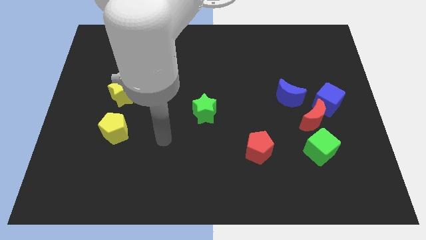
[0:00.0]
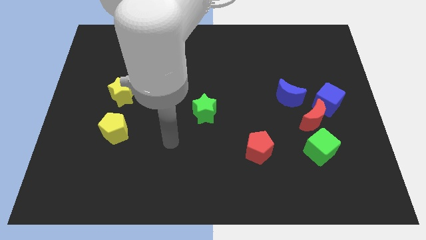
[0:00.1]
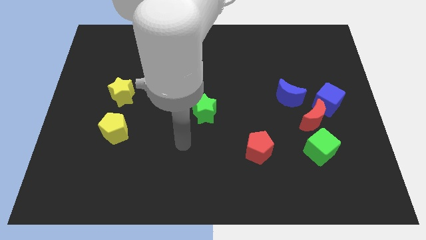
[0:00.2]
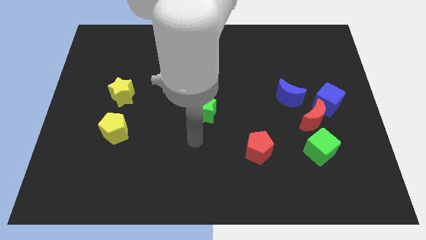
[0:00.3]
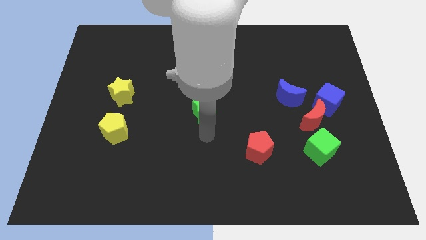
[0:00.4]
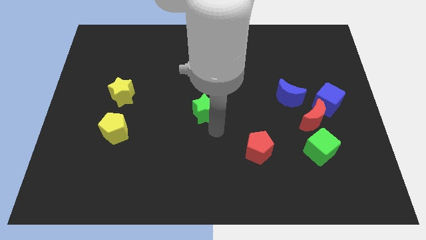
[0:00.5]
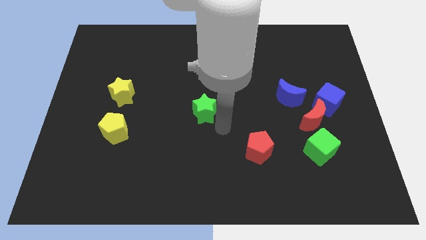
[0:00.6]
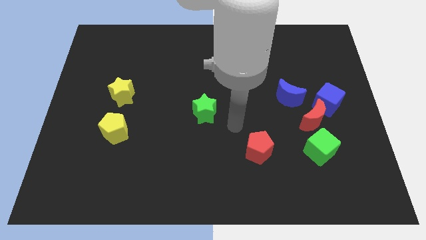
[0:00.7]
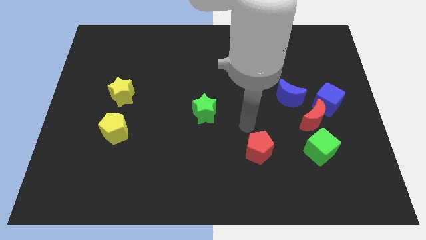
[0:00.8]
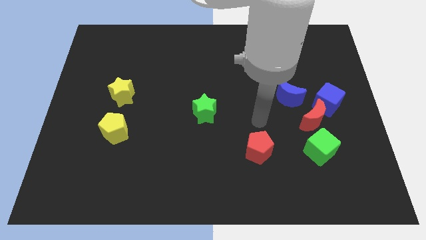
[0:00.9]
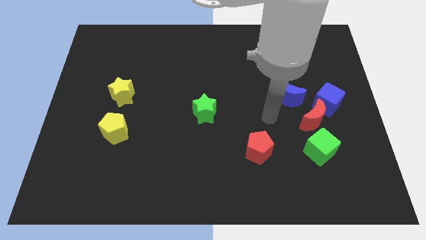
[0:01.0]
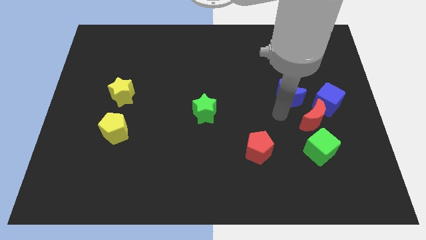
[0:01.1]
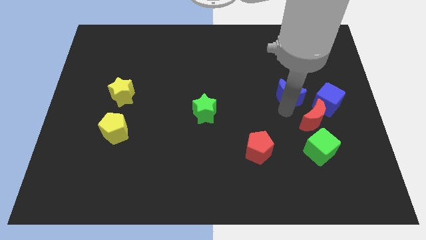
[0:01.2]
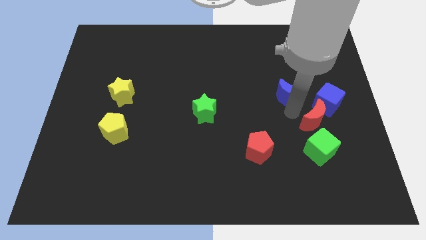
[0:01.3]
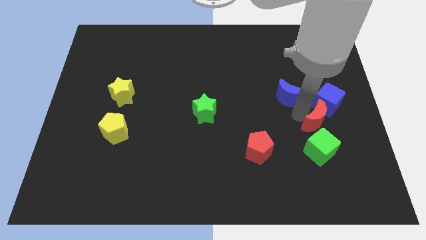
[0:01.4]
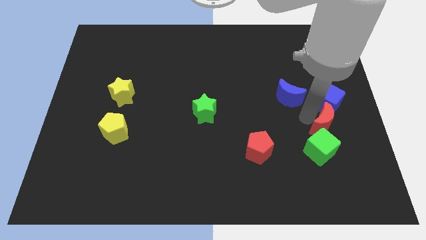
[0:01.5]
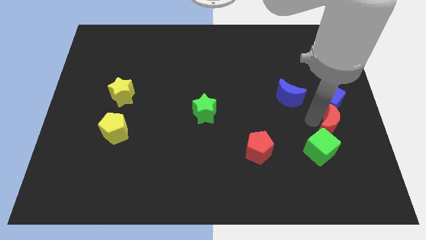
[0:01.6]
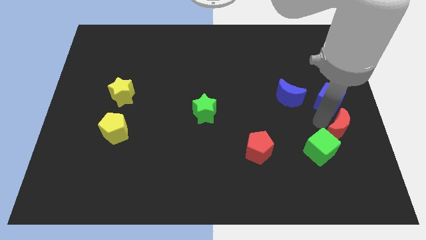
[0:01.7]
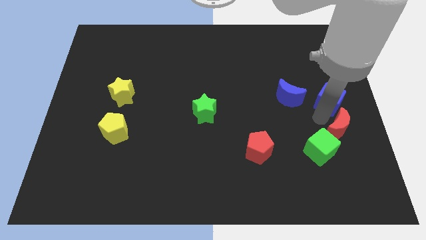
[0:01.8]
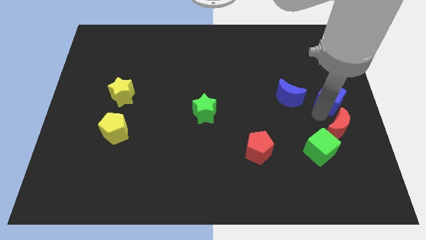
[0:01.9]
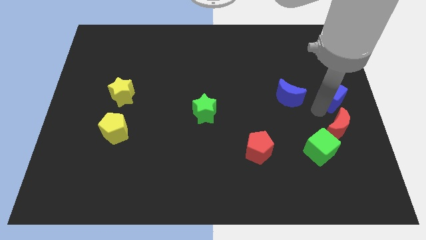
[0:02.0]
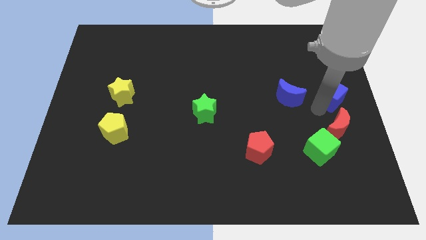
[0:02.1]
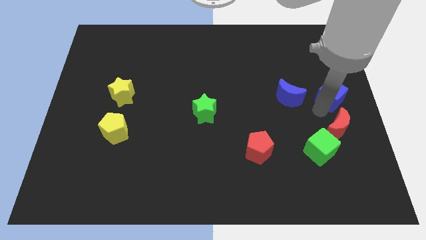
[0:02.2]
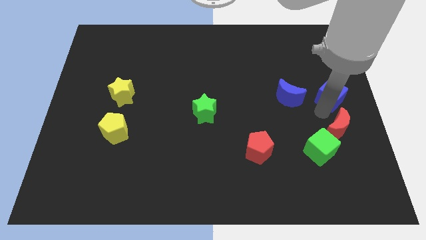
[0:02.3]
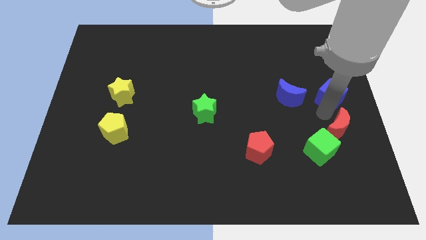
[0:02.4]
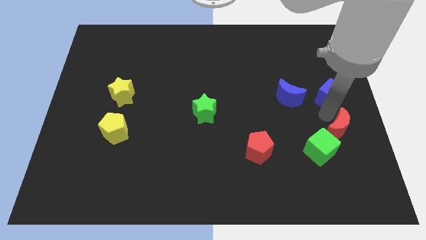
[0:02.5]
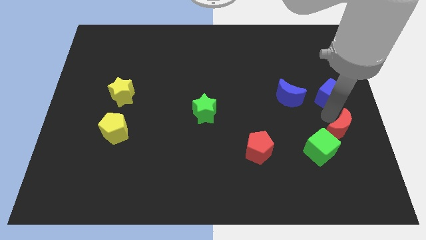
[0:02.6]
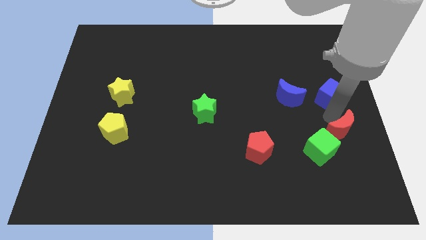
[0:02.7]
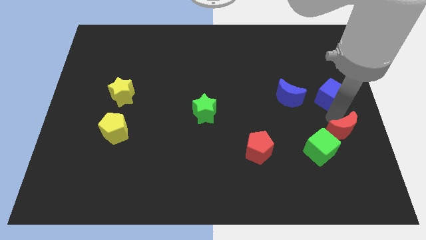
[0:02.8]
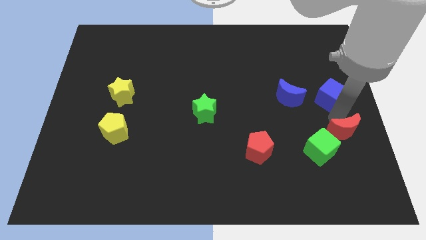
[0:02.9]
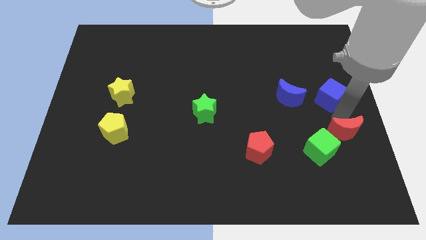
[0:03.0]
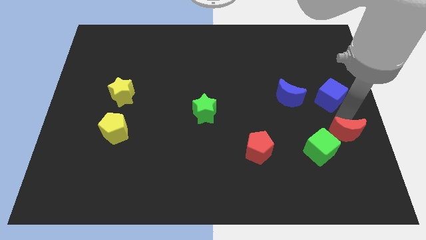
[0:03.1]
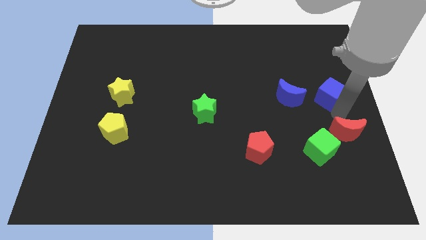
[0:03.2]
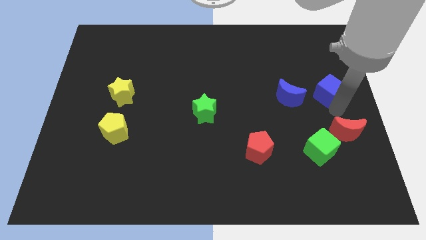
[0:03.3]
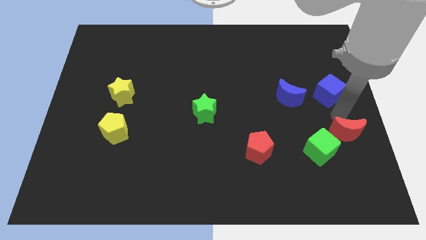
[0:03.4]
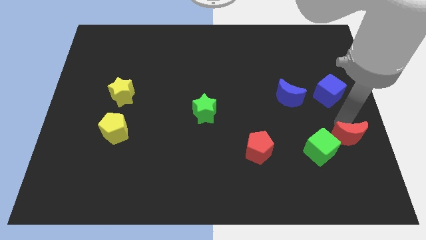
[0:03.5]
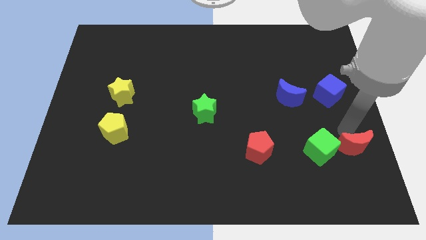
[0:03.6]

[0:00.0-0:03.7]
separate the red moon from the blue cube, green cube, and blue moon

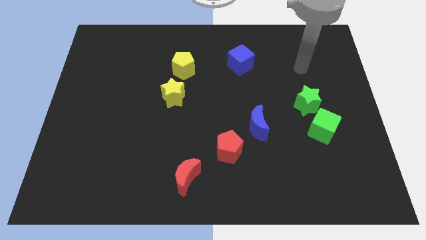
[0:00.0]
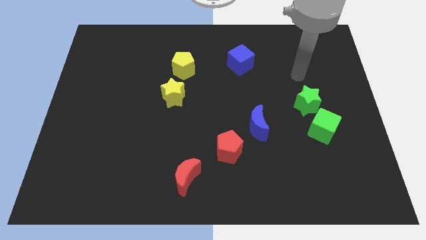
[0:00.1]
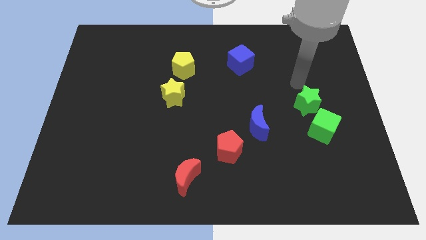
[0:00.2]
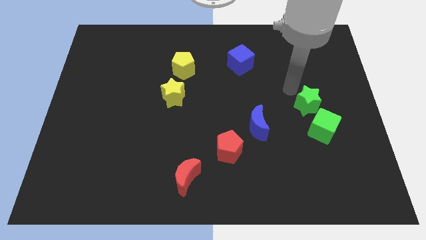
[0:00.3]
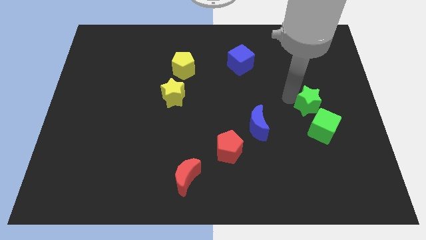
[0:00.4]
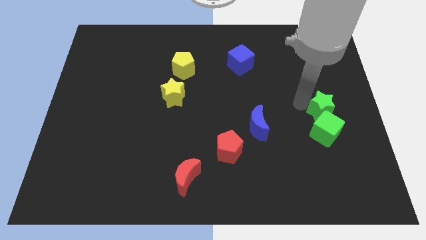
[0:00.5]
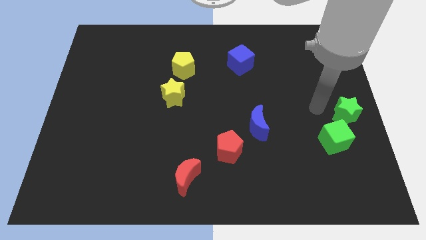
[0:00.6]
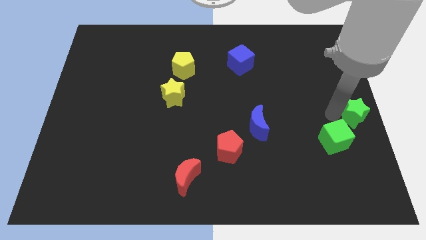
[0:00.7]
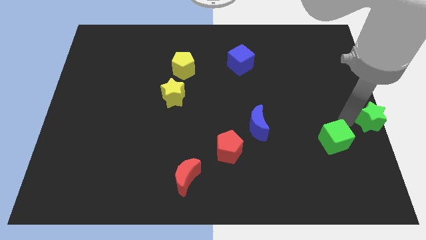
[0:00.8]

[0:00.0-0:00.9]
pull the green cube apart from the green star

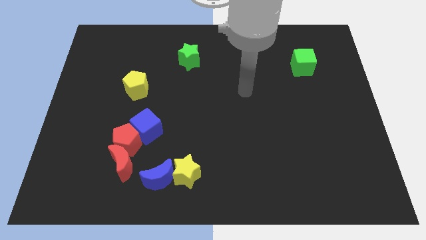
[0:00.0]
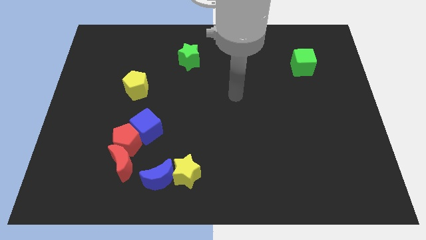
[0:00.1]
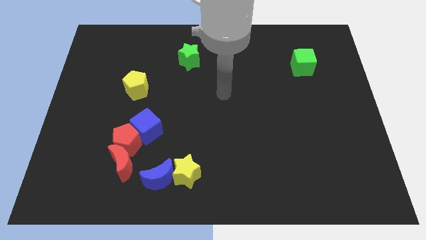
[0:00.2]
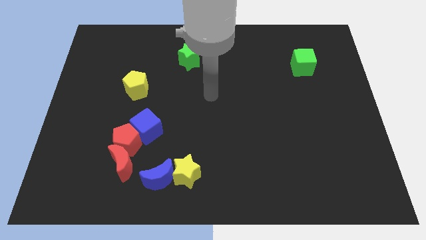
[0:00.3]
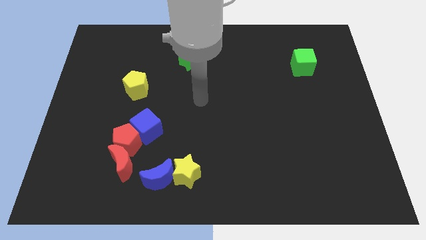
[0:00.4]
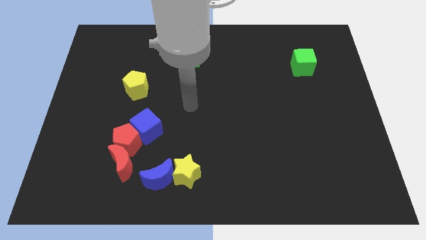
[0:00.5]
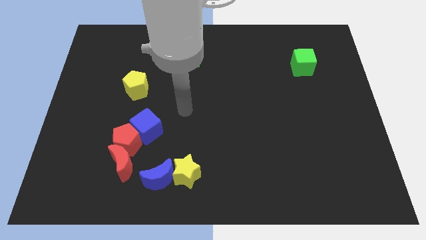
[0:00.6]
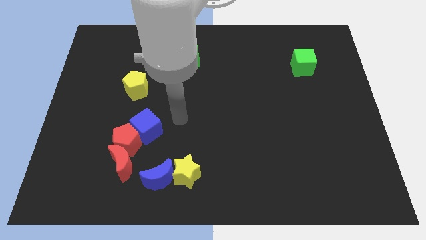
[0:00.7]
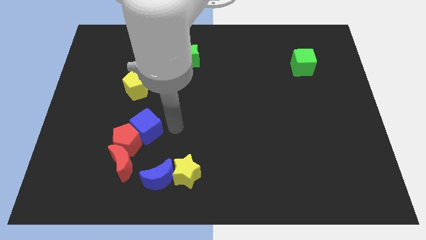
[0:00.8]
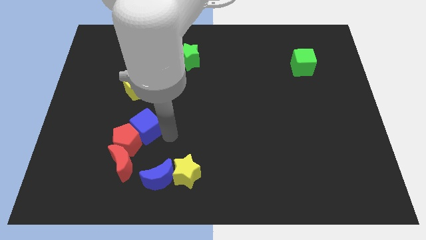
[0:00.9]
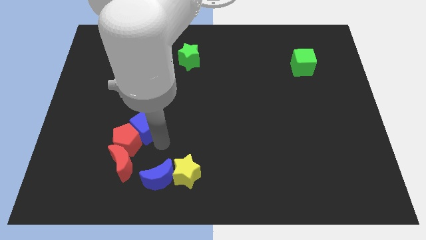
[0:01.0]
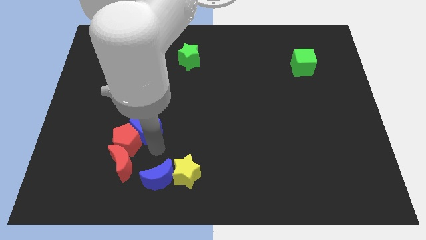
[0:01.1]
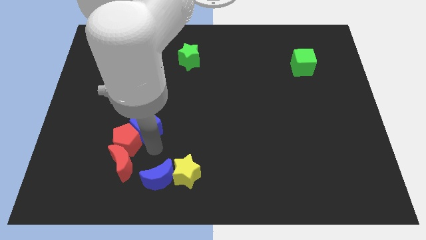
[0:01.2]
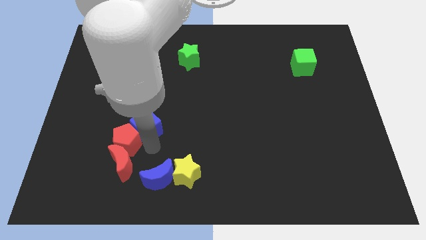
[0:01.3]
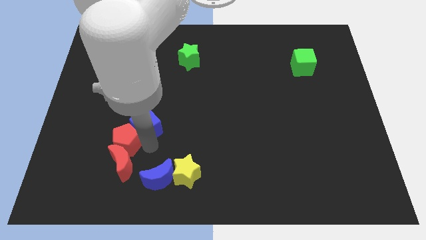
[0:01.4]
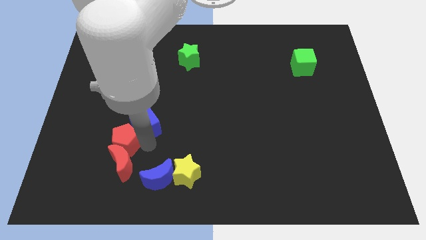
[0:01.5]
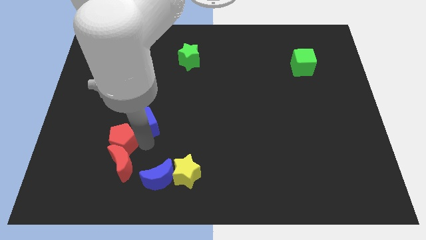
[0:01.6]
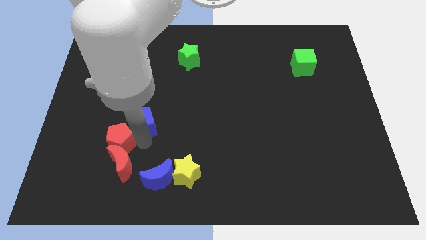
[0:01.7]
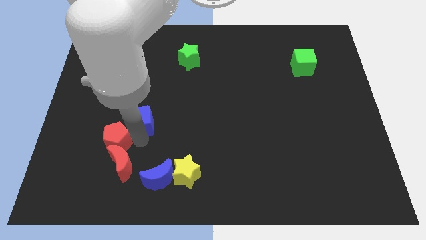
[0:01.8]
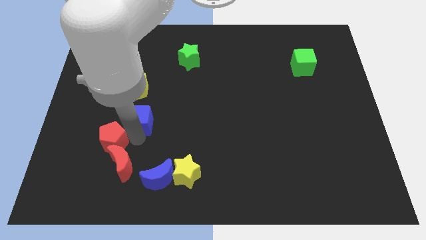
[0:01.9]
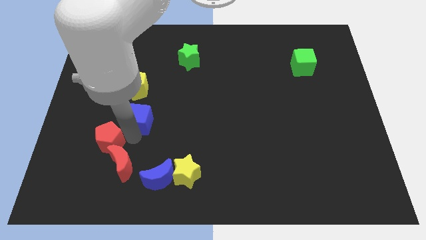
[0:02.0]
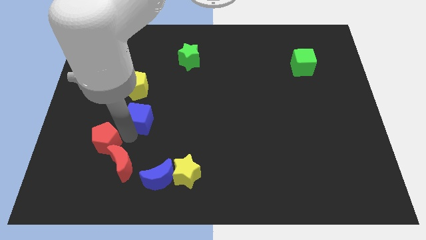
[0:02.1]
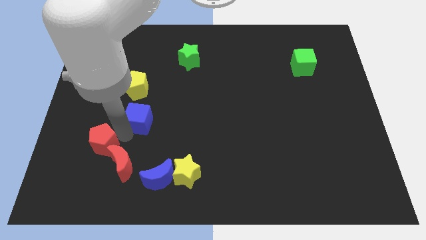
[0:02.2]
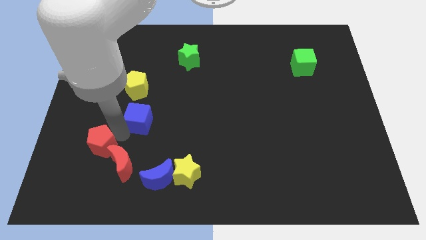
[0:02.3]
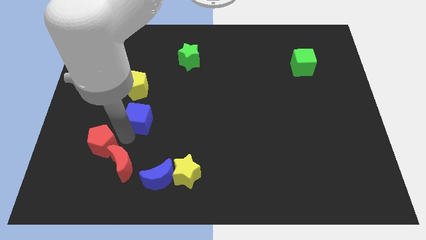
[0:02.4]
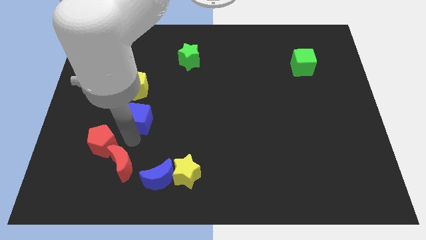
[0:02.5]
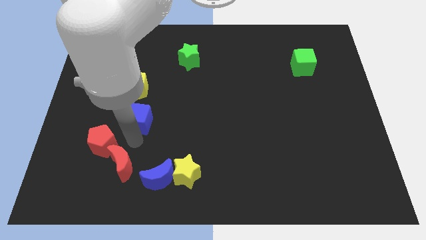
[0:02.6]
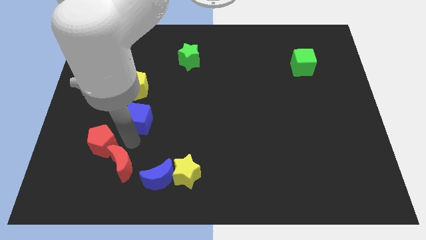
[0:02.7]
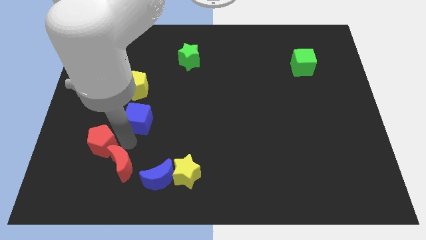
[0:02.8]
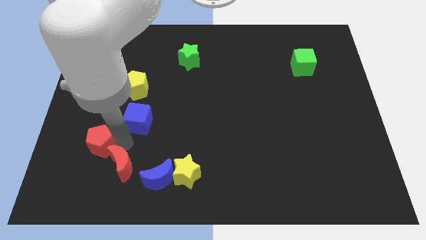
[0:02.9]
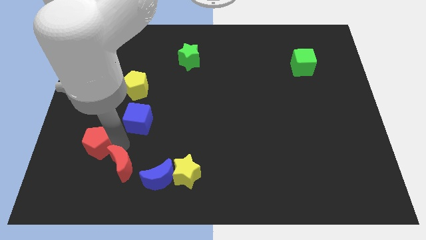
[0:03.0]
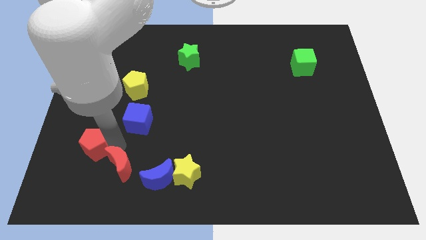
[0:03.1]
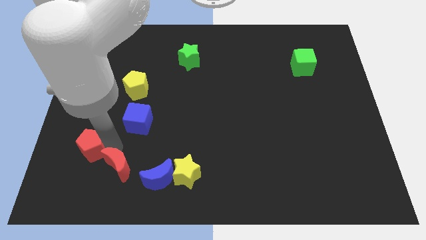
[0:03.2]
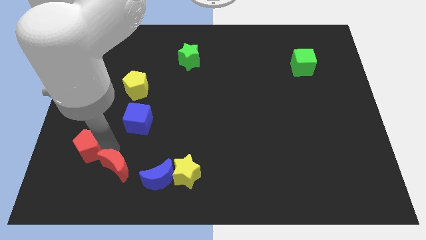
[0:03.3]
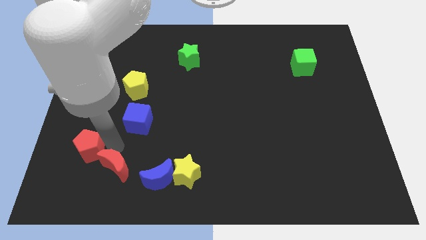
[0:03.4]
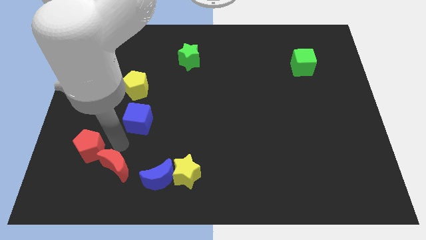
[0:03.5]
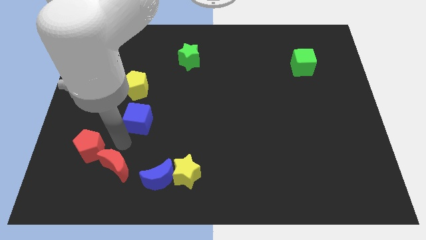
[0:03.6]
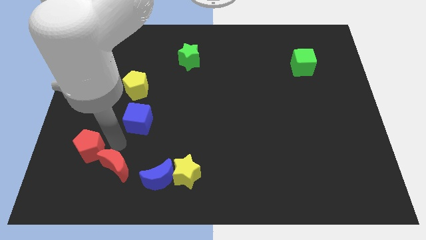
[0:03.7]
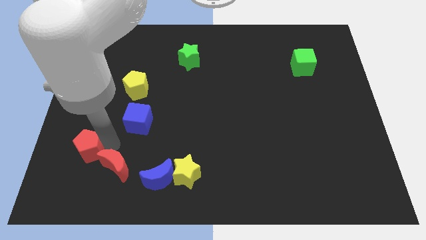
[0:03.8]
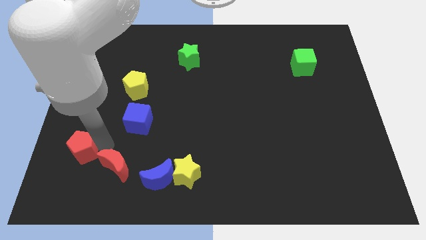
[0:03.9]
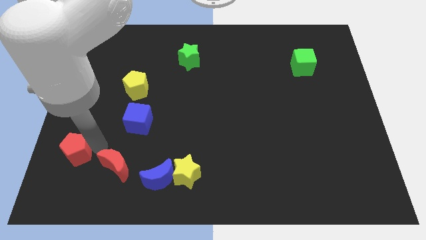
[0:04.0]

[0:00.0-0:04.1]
move the red pentagon away from the blue cube and red moon

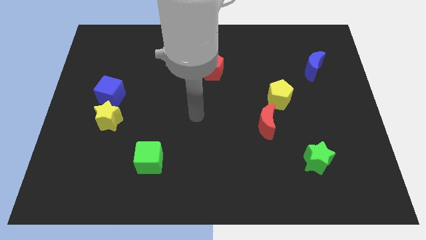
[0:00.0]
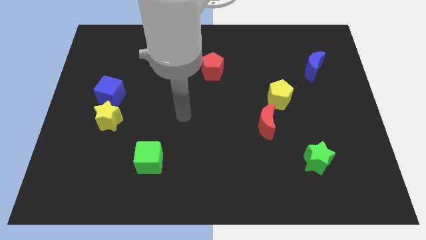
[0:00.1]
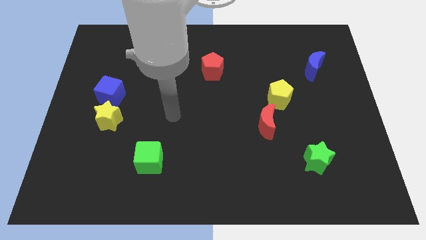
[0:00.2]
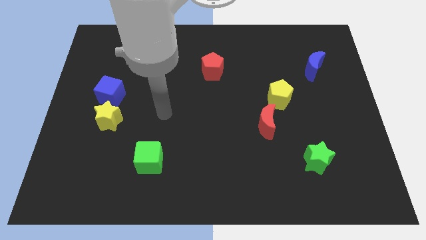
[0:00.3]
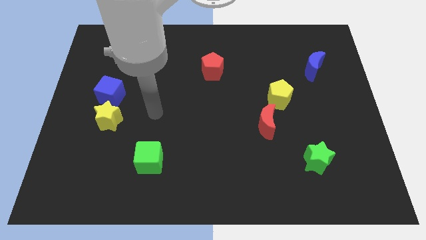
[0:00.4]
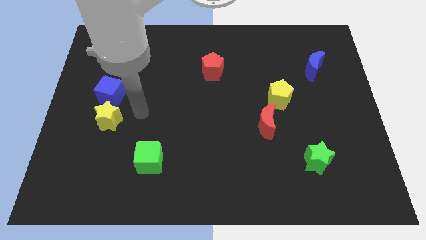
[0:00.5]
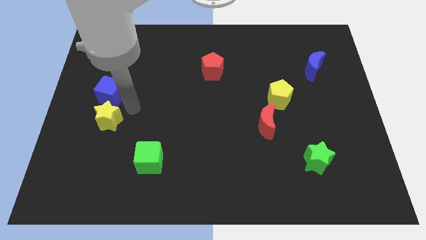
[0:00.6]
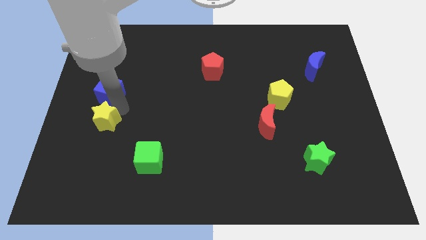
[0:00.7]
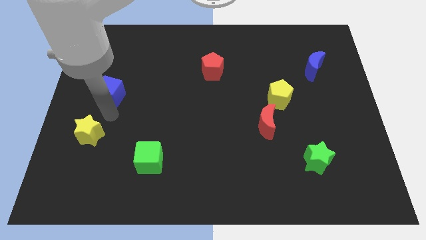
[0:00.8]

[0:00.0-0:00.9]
move the blue cube away from the yellow star
